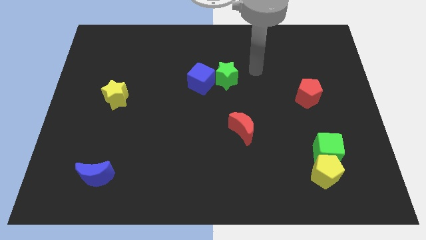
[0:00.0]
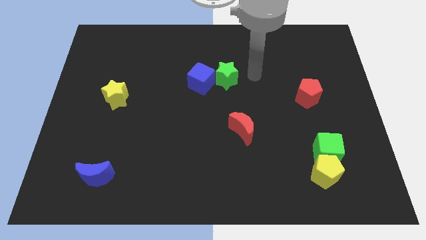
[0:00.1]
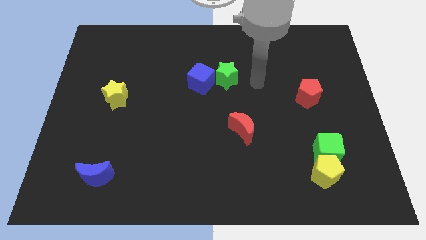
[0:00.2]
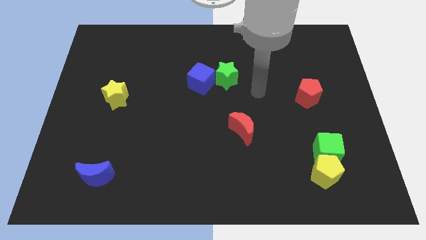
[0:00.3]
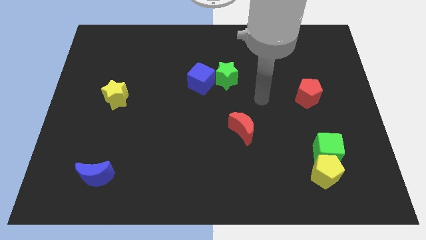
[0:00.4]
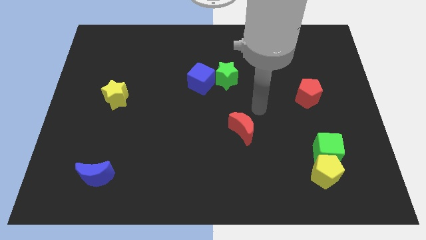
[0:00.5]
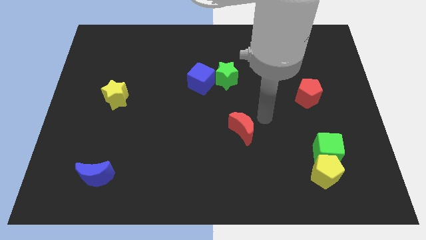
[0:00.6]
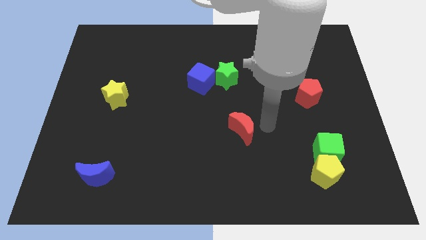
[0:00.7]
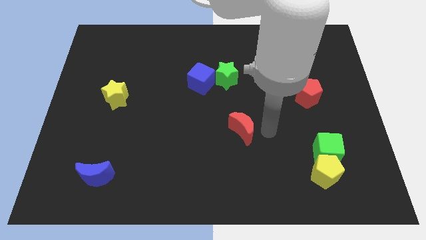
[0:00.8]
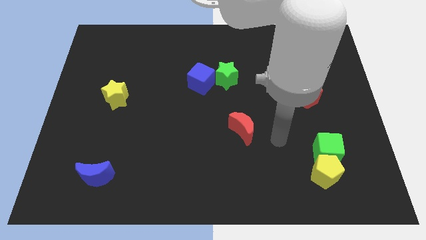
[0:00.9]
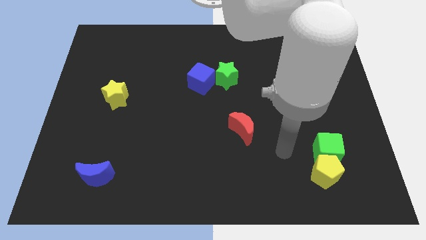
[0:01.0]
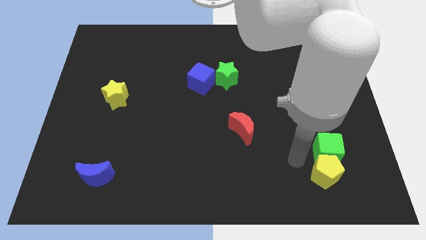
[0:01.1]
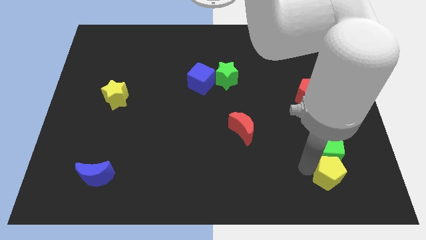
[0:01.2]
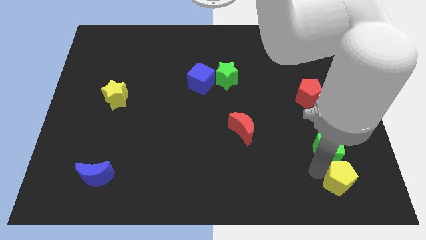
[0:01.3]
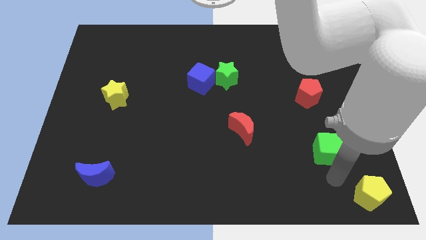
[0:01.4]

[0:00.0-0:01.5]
pull the green cube apart from the yellow pentagon

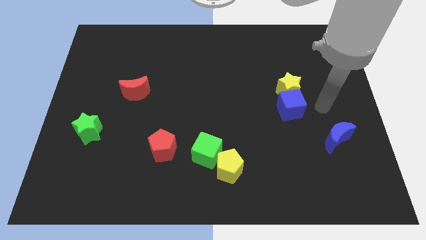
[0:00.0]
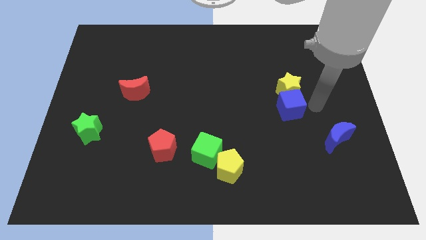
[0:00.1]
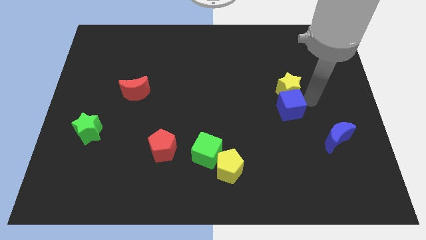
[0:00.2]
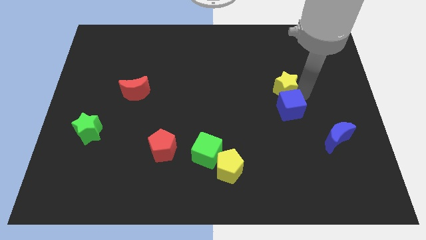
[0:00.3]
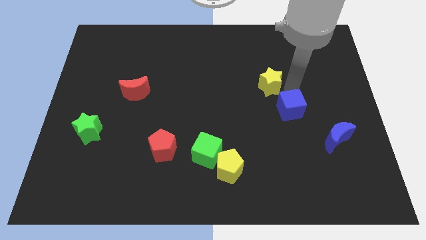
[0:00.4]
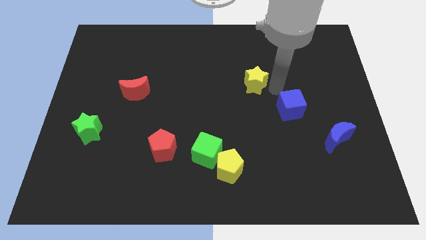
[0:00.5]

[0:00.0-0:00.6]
separate the blue cube from the yellow star

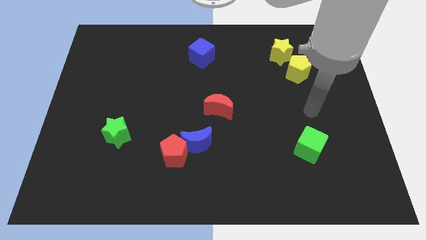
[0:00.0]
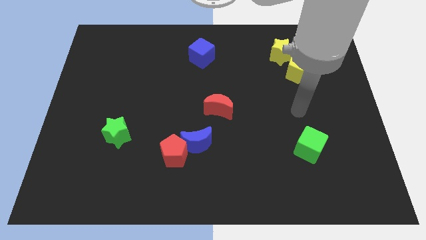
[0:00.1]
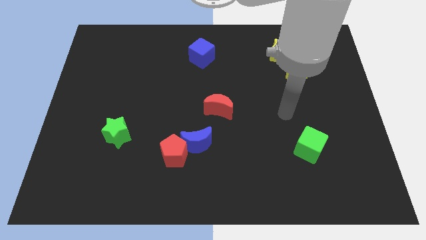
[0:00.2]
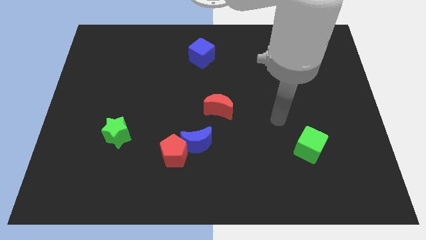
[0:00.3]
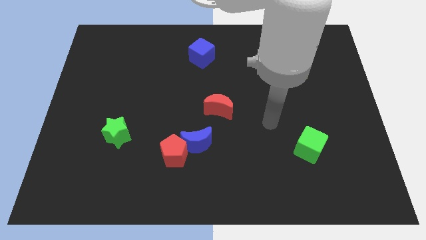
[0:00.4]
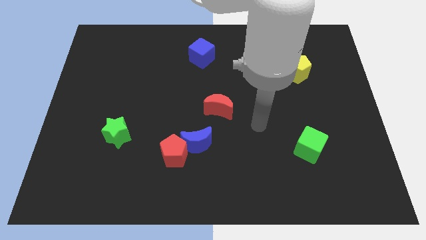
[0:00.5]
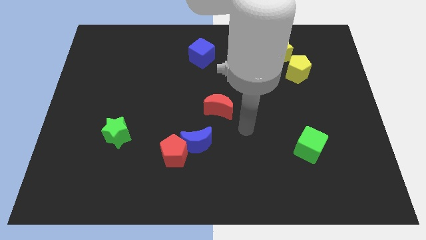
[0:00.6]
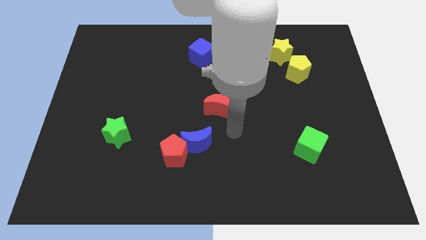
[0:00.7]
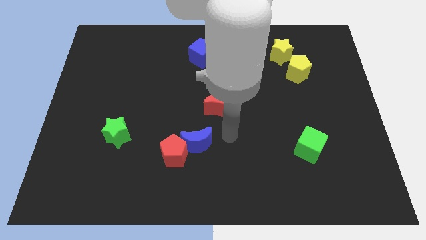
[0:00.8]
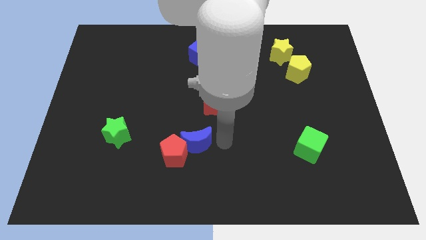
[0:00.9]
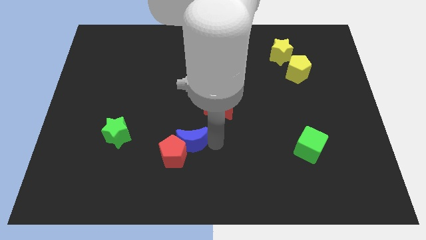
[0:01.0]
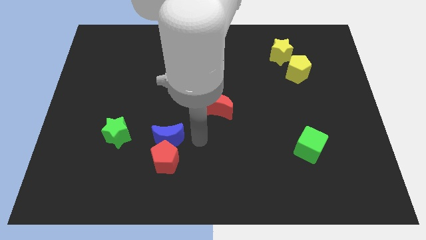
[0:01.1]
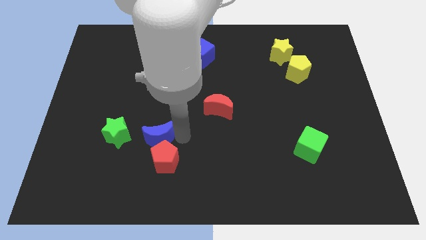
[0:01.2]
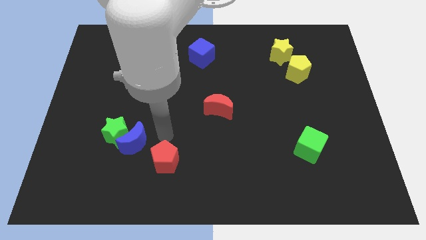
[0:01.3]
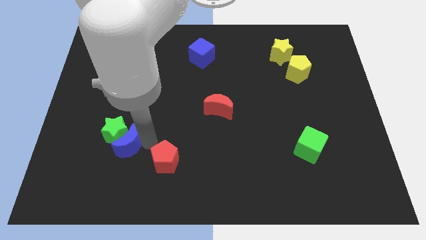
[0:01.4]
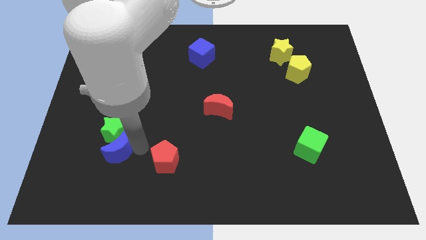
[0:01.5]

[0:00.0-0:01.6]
pull the red pentagon apart from the blue moon

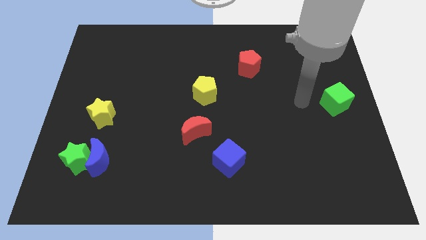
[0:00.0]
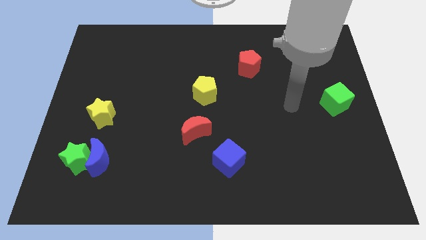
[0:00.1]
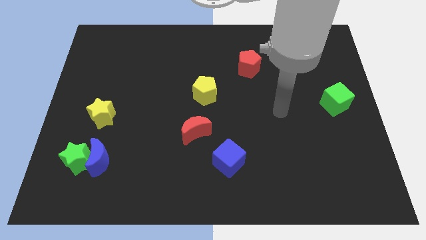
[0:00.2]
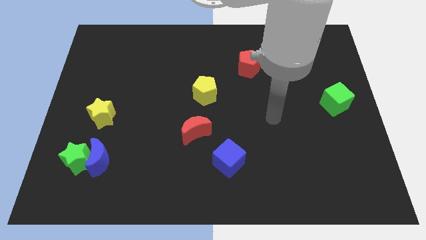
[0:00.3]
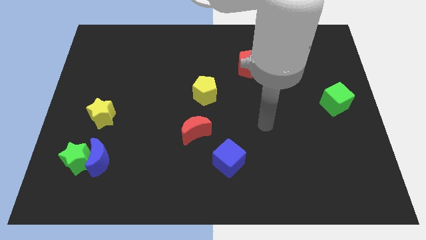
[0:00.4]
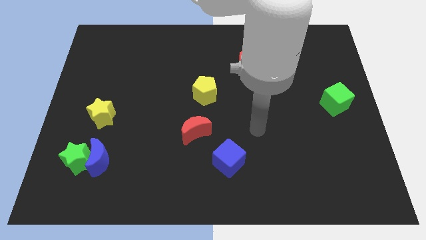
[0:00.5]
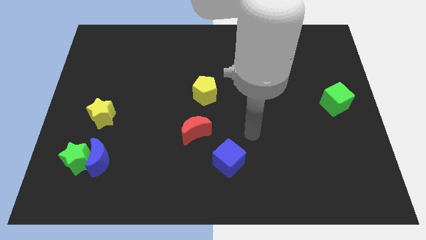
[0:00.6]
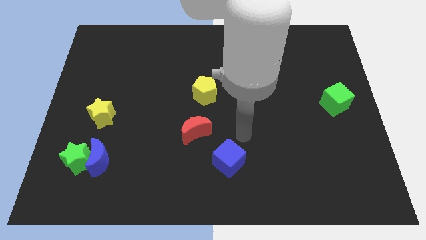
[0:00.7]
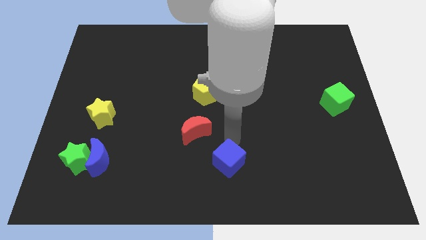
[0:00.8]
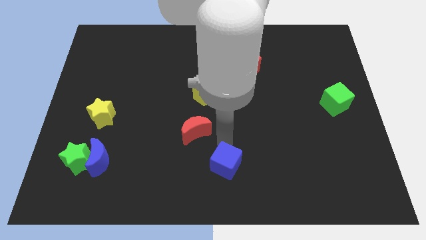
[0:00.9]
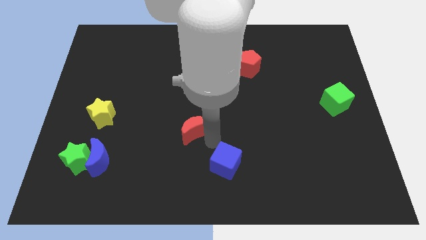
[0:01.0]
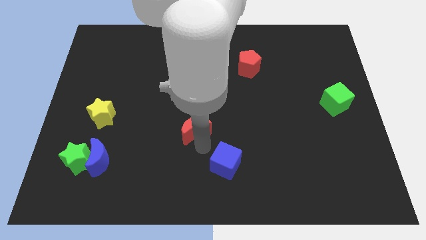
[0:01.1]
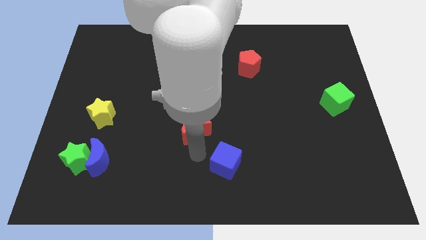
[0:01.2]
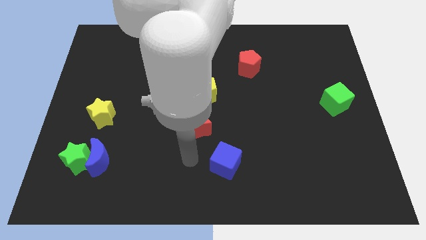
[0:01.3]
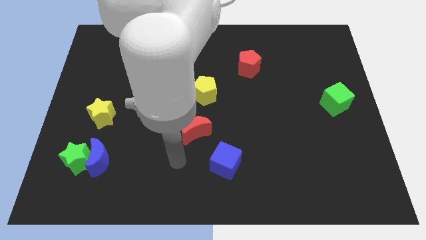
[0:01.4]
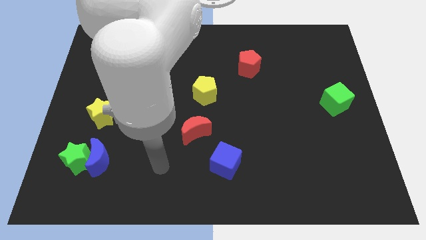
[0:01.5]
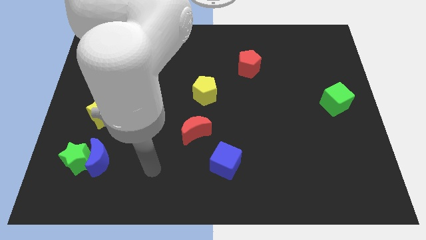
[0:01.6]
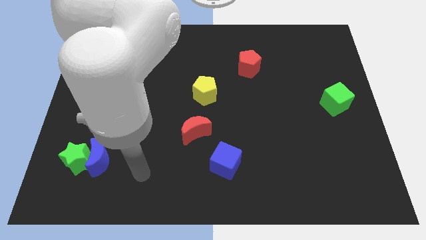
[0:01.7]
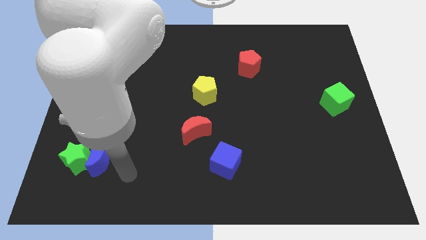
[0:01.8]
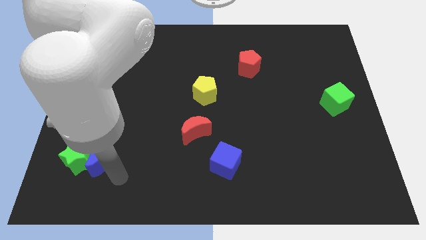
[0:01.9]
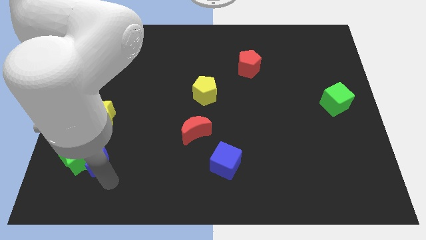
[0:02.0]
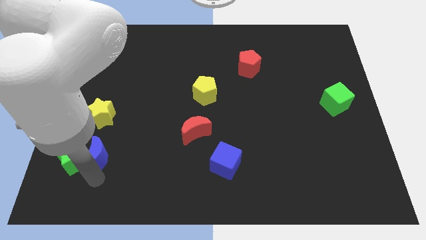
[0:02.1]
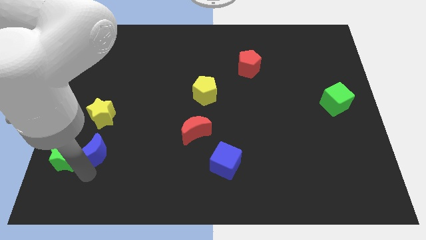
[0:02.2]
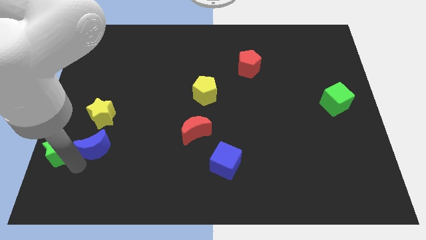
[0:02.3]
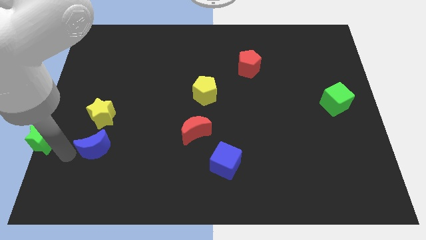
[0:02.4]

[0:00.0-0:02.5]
pull the blue moon apart from the green star

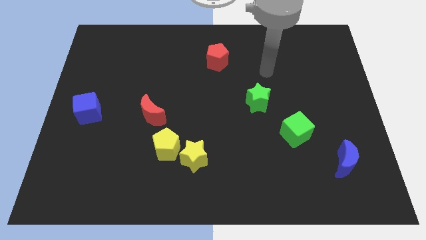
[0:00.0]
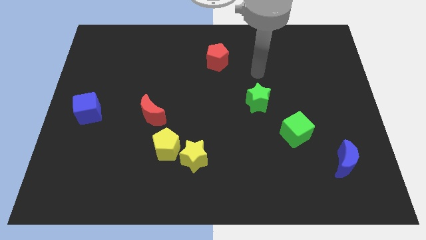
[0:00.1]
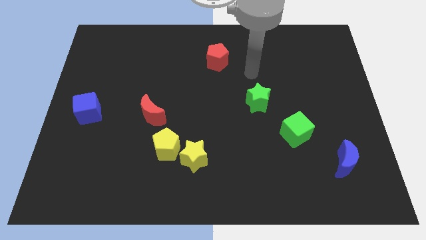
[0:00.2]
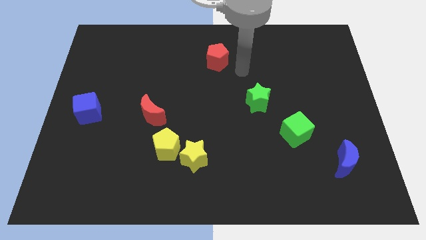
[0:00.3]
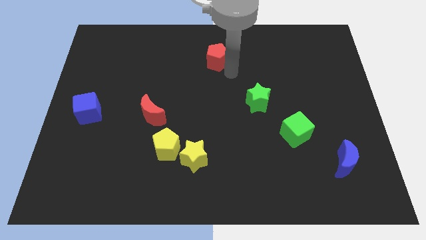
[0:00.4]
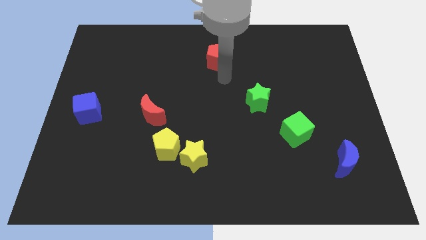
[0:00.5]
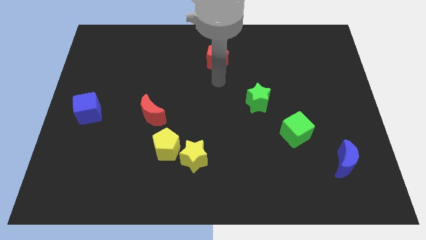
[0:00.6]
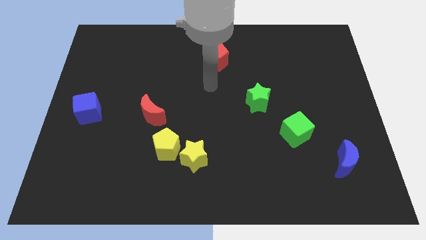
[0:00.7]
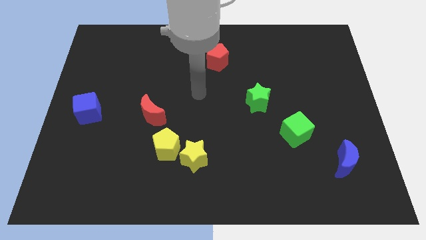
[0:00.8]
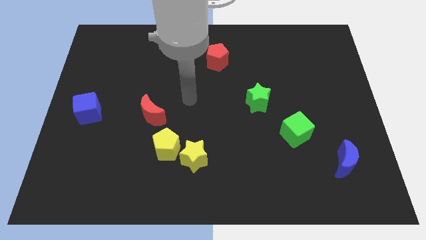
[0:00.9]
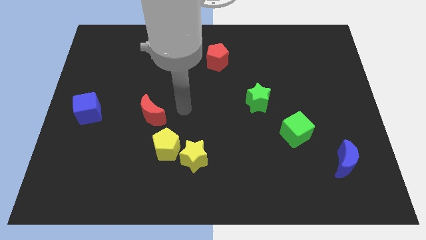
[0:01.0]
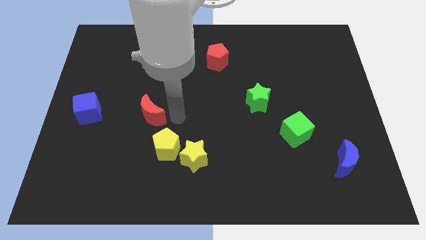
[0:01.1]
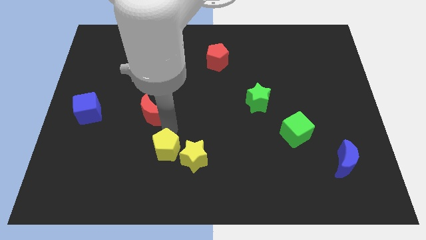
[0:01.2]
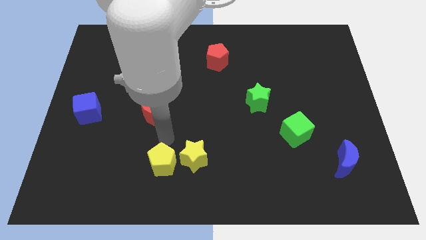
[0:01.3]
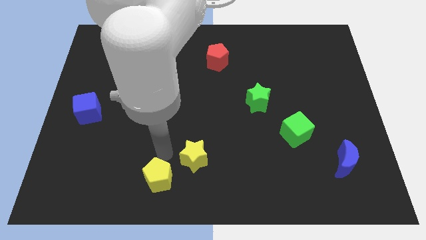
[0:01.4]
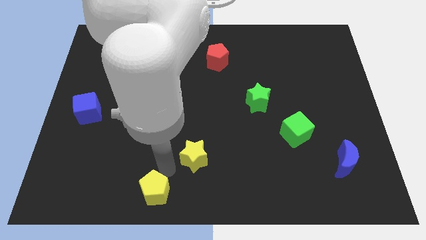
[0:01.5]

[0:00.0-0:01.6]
move the yellow star away from the yellow pentagon

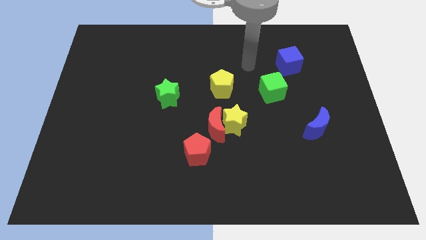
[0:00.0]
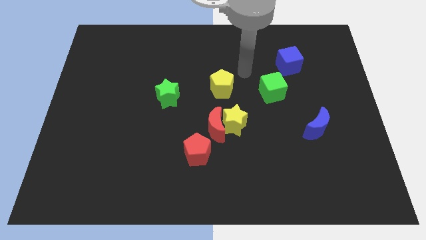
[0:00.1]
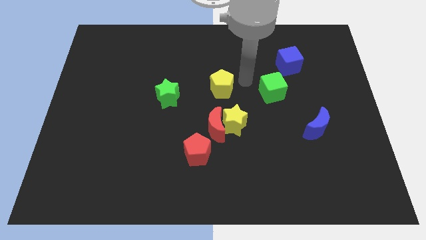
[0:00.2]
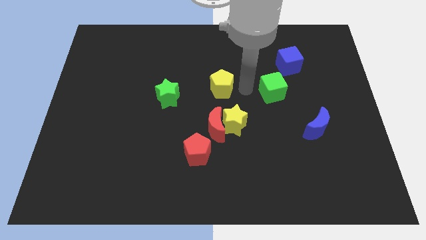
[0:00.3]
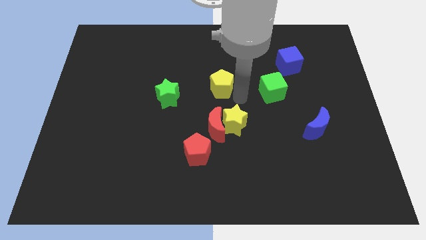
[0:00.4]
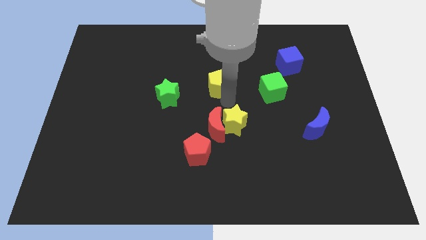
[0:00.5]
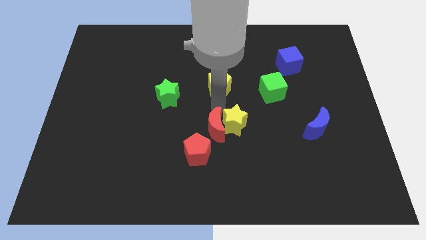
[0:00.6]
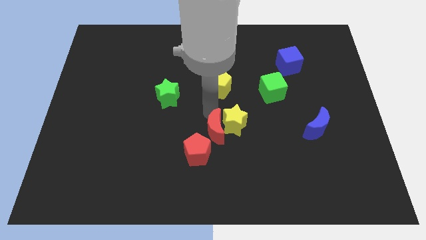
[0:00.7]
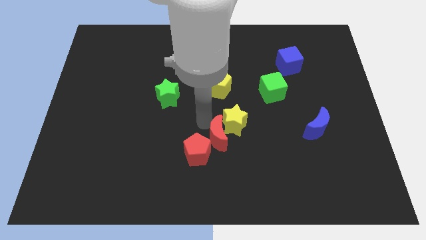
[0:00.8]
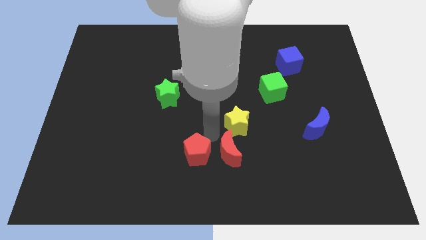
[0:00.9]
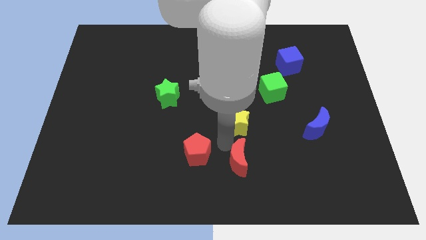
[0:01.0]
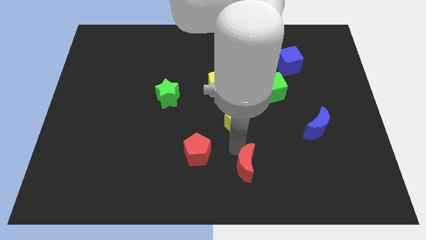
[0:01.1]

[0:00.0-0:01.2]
separate the yellow star from the red moon

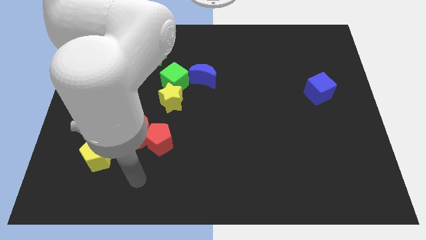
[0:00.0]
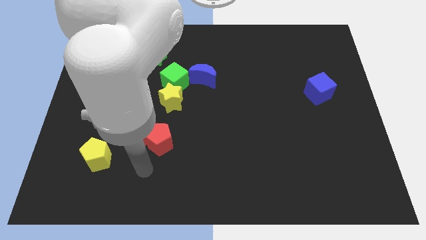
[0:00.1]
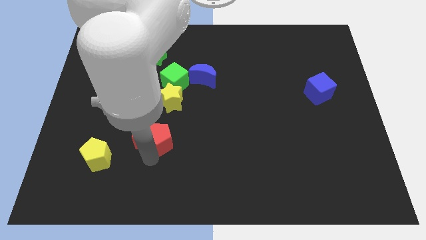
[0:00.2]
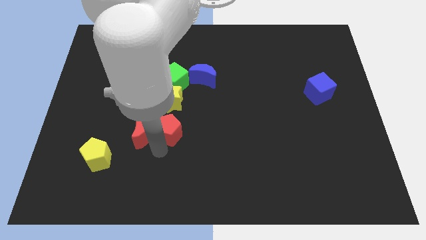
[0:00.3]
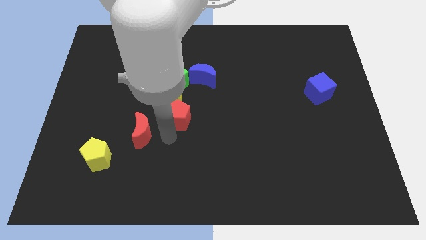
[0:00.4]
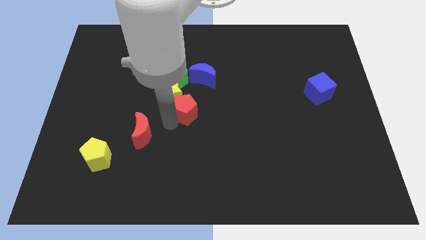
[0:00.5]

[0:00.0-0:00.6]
pull the red moon apart from the red pentagon
